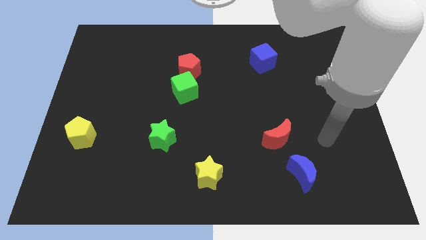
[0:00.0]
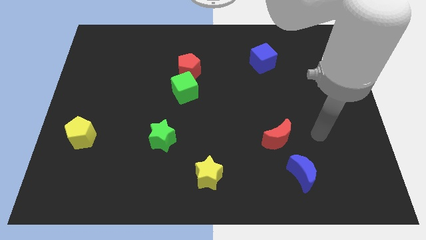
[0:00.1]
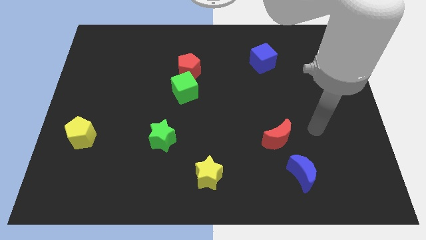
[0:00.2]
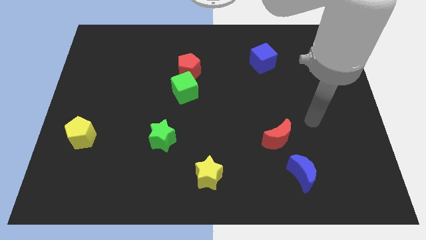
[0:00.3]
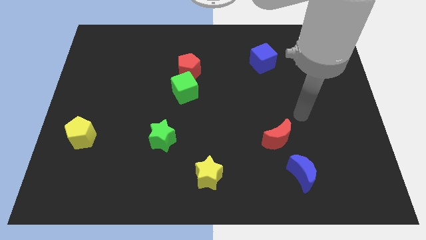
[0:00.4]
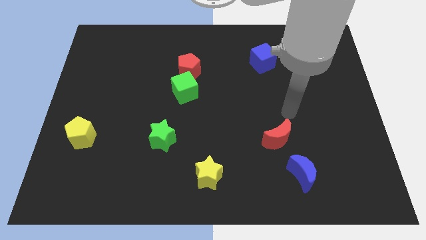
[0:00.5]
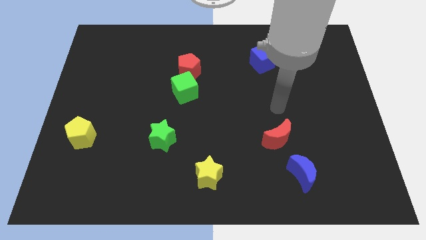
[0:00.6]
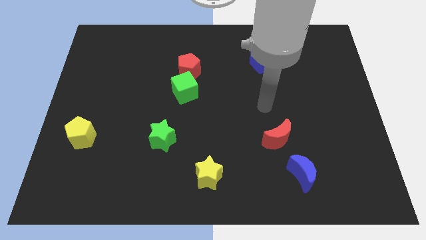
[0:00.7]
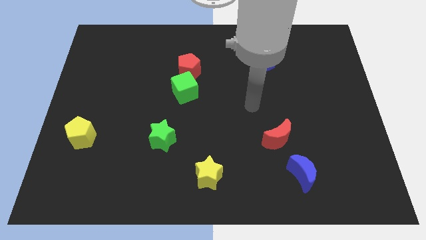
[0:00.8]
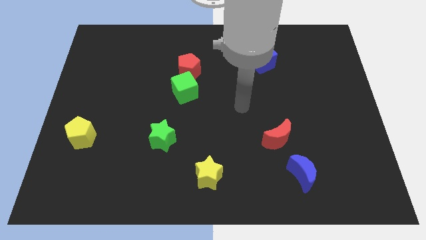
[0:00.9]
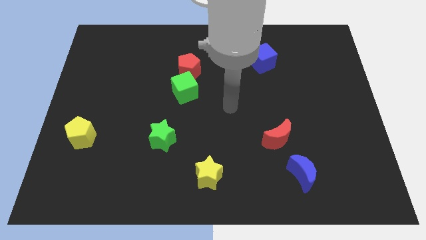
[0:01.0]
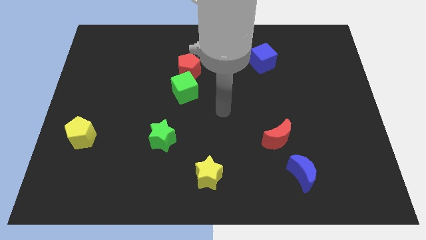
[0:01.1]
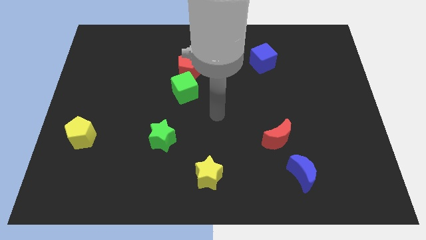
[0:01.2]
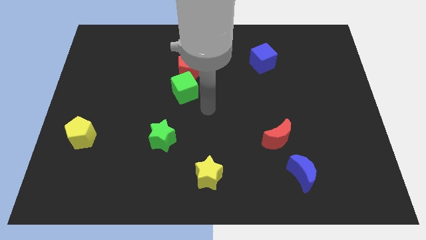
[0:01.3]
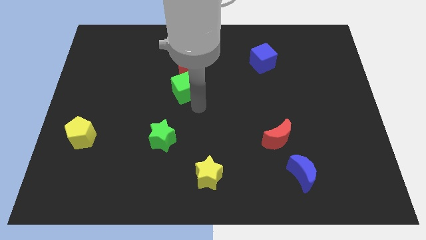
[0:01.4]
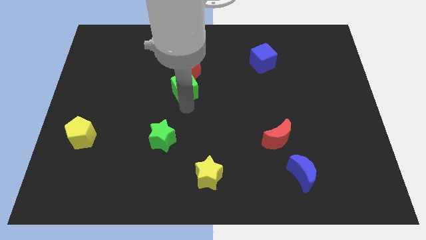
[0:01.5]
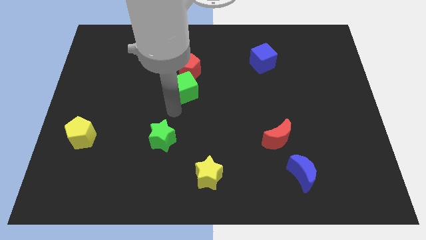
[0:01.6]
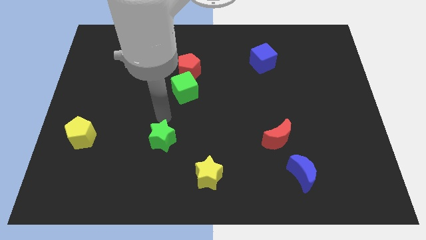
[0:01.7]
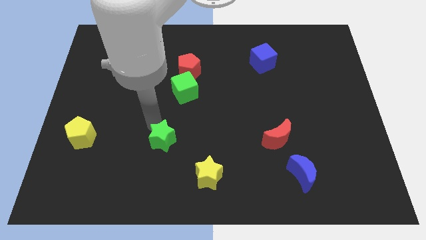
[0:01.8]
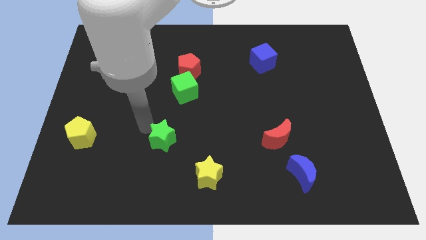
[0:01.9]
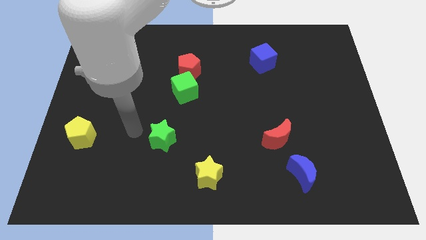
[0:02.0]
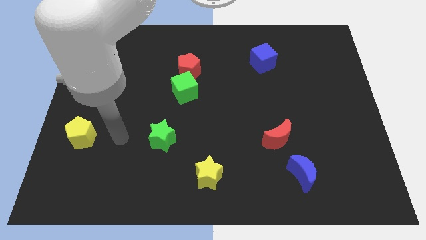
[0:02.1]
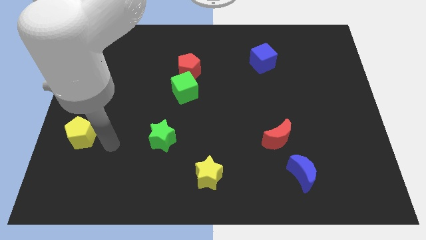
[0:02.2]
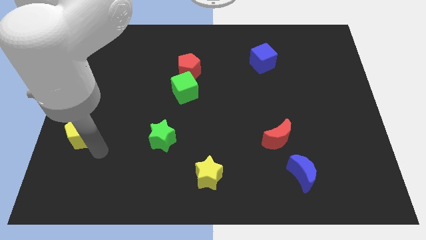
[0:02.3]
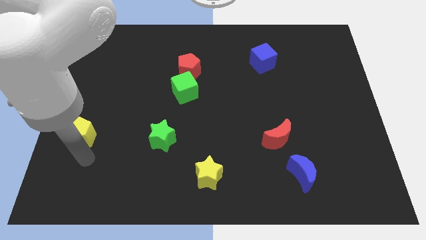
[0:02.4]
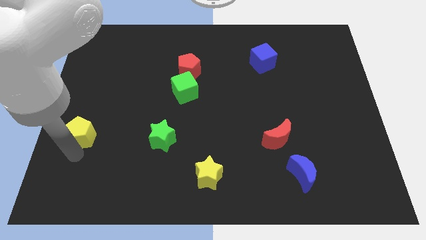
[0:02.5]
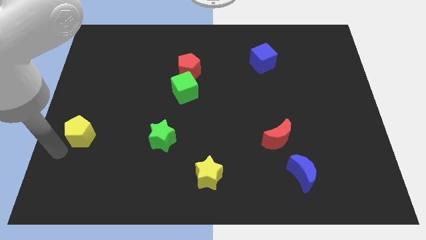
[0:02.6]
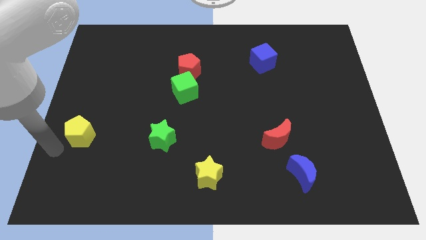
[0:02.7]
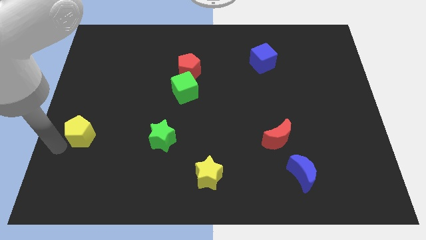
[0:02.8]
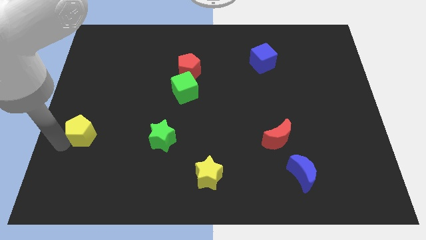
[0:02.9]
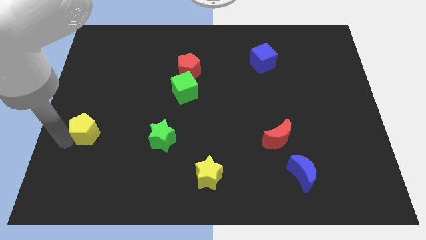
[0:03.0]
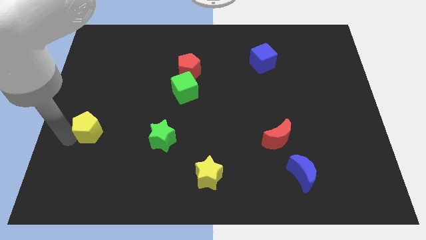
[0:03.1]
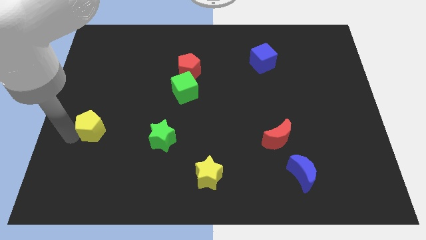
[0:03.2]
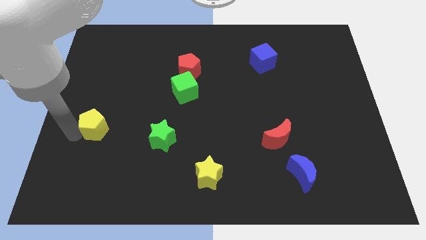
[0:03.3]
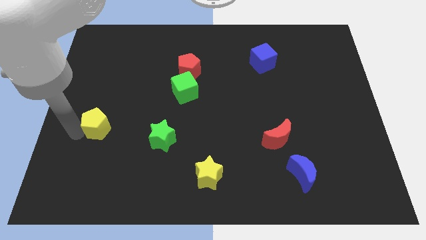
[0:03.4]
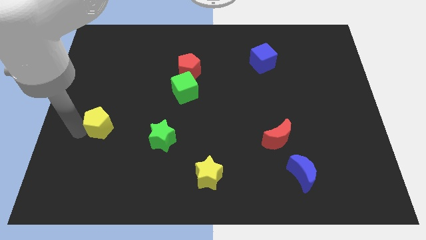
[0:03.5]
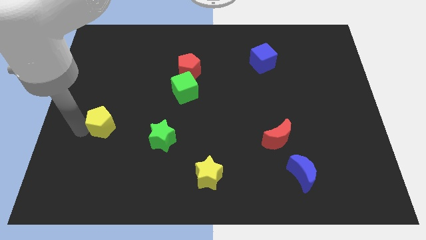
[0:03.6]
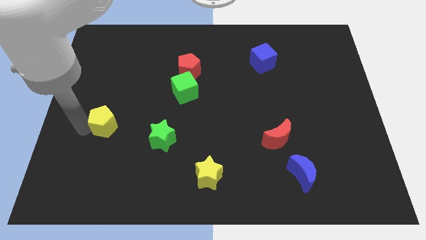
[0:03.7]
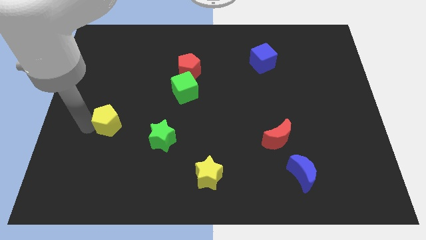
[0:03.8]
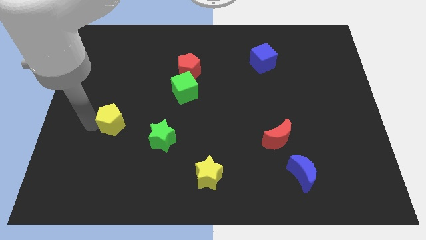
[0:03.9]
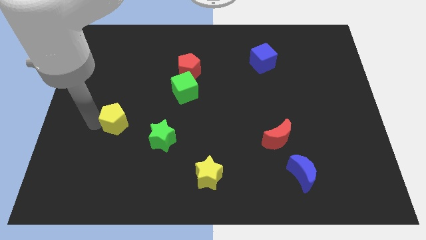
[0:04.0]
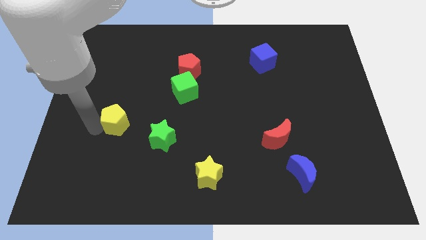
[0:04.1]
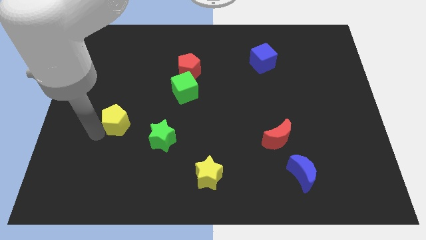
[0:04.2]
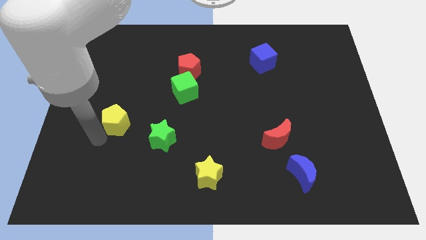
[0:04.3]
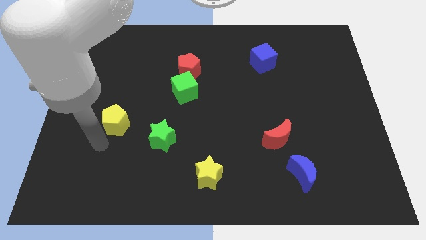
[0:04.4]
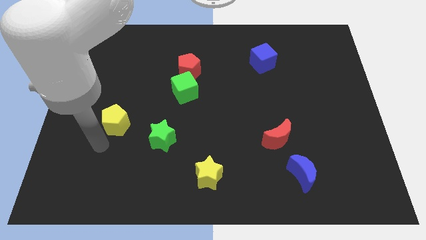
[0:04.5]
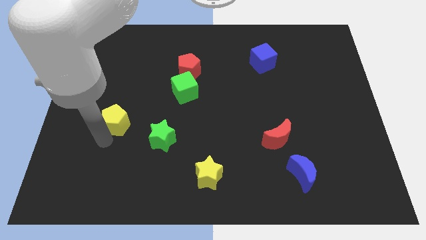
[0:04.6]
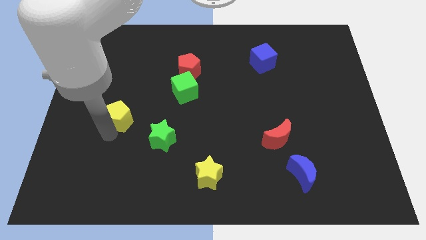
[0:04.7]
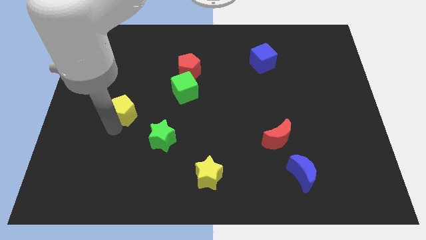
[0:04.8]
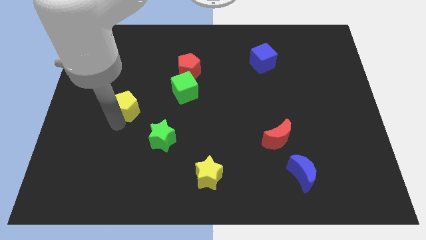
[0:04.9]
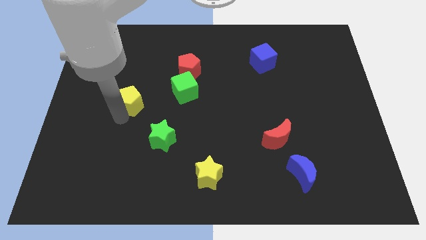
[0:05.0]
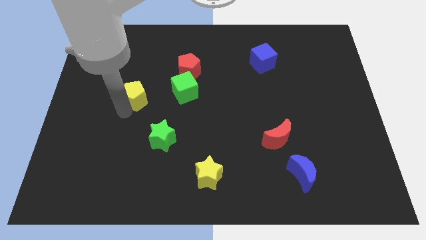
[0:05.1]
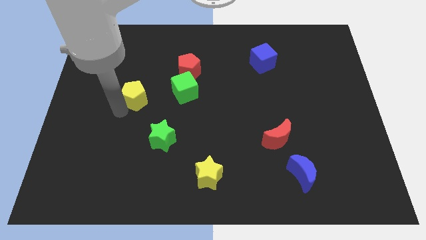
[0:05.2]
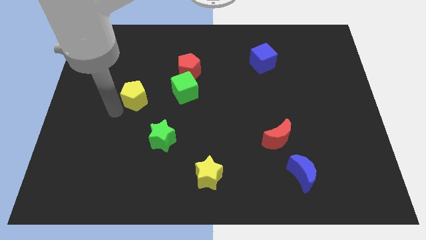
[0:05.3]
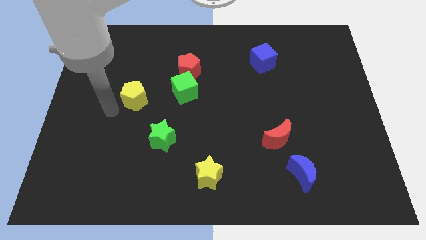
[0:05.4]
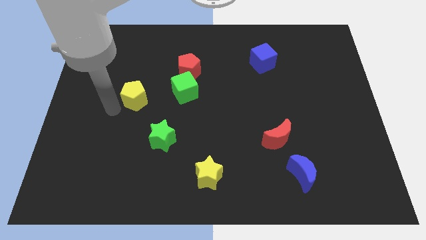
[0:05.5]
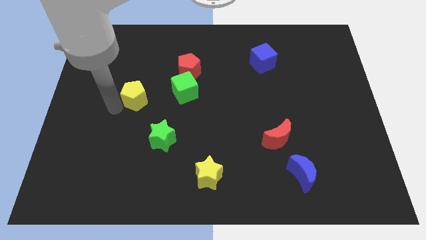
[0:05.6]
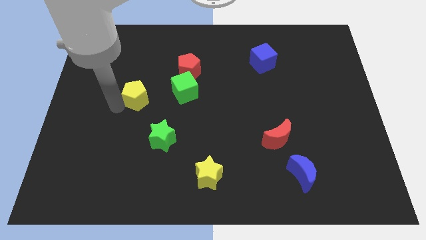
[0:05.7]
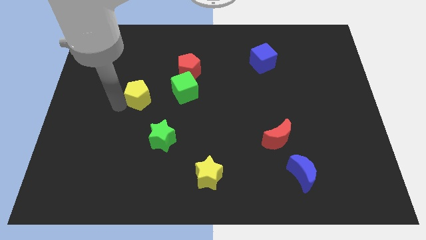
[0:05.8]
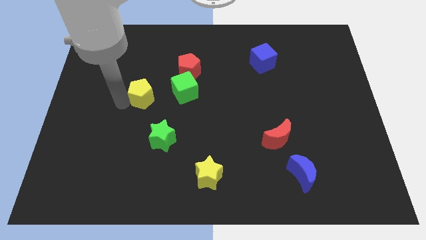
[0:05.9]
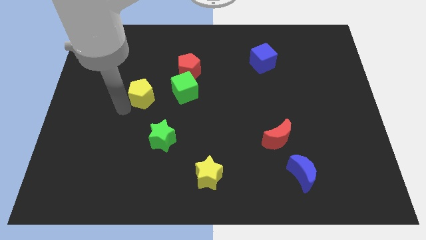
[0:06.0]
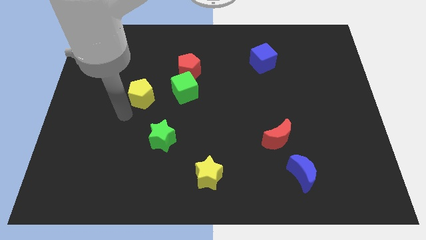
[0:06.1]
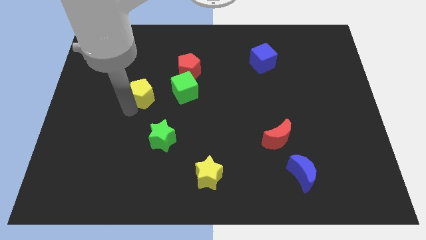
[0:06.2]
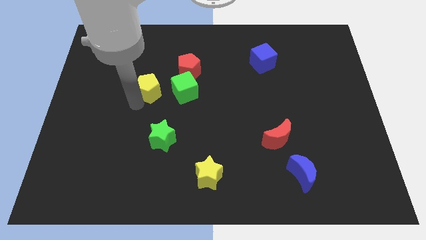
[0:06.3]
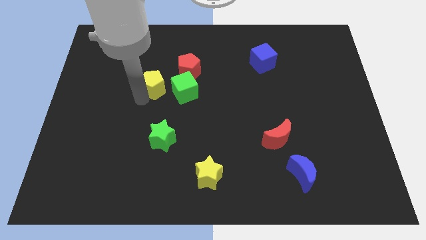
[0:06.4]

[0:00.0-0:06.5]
put the yellow pentagon diagonally up and to the left of the green cube

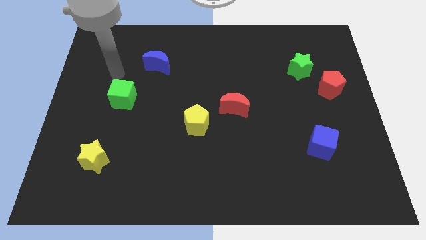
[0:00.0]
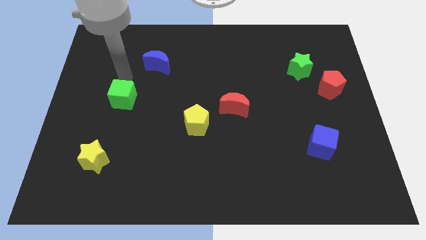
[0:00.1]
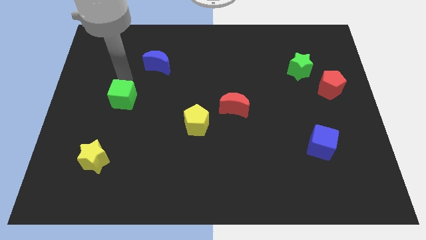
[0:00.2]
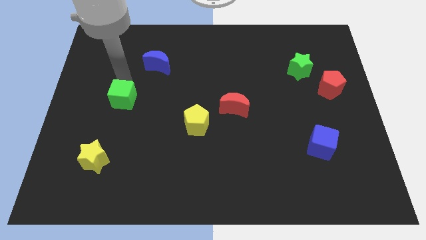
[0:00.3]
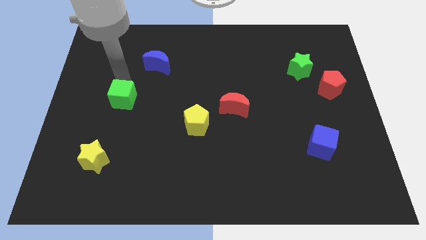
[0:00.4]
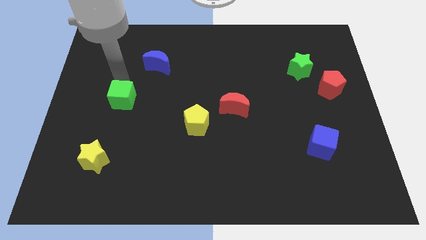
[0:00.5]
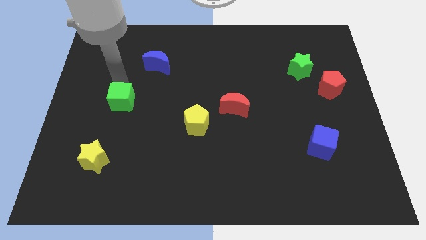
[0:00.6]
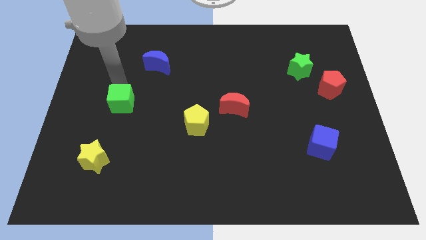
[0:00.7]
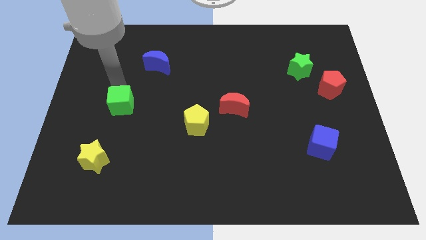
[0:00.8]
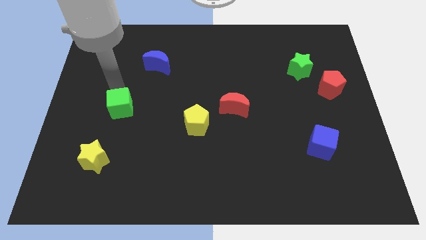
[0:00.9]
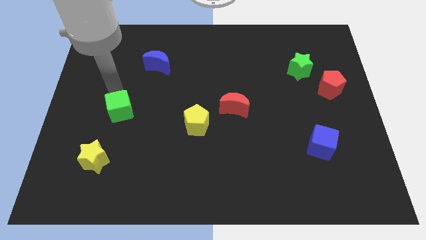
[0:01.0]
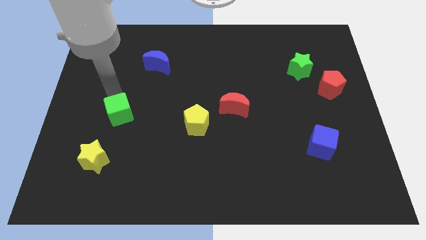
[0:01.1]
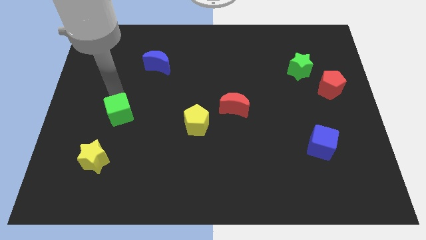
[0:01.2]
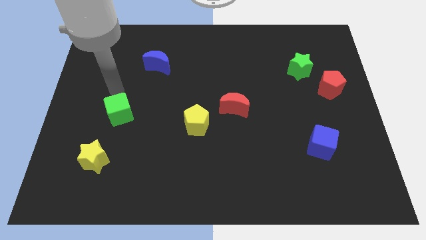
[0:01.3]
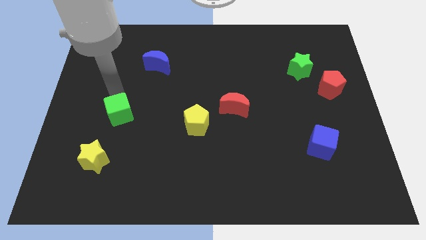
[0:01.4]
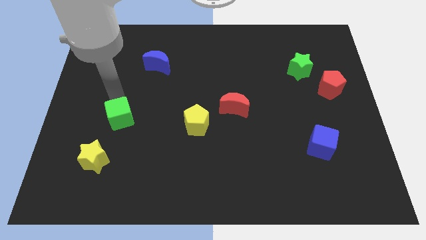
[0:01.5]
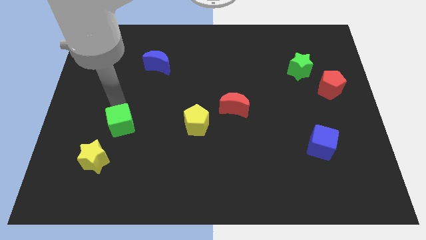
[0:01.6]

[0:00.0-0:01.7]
move the green cube to the top right side of the yellow star
